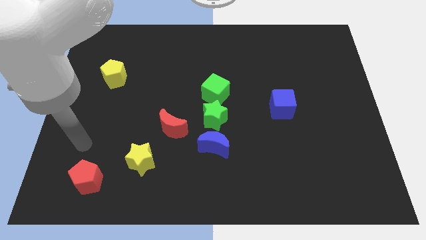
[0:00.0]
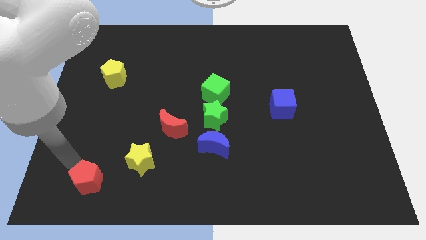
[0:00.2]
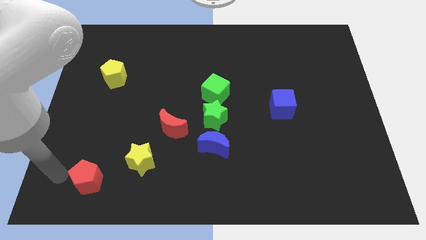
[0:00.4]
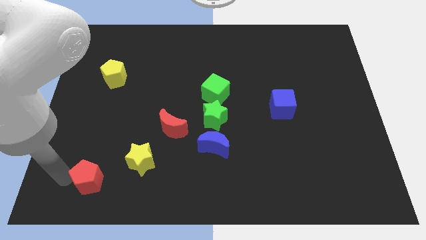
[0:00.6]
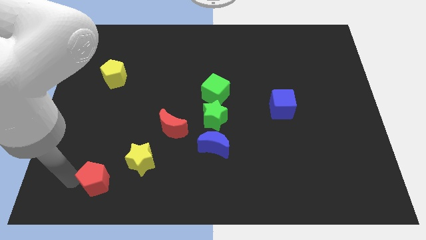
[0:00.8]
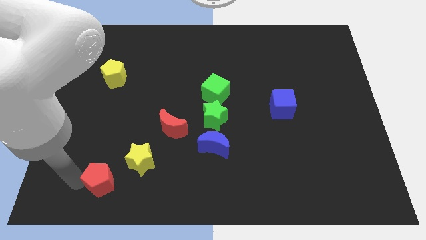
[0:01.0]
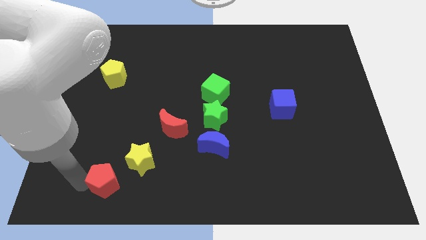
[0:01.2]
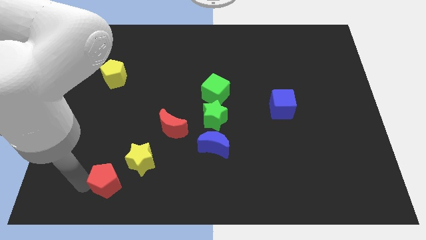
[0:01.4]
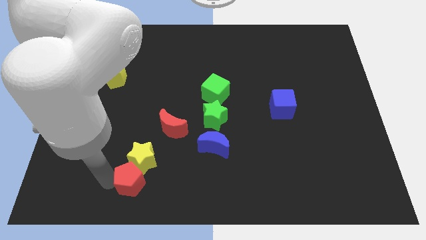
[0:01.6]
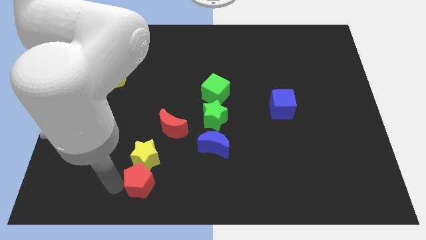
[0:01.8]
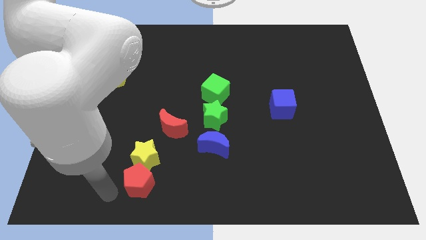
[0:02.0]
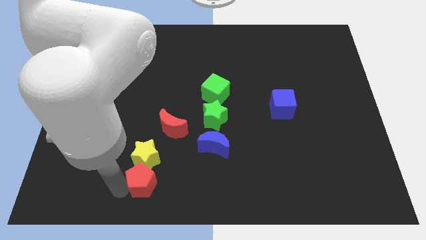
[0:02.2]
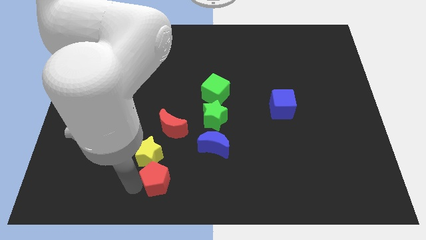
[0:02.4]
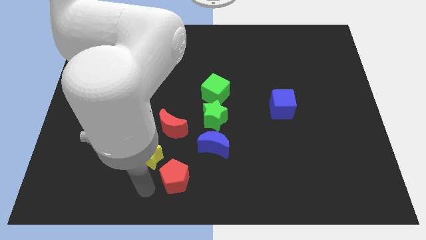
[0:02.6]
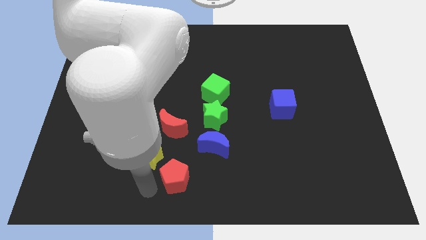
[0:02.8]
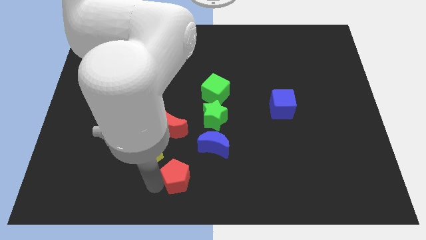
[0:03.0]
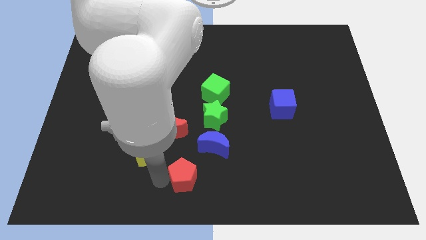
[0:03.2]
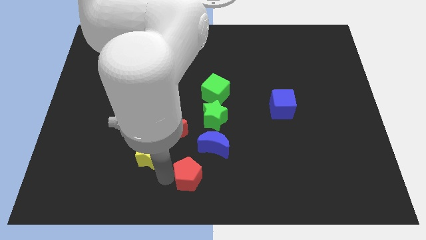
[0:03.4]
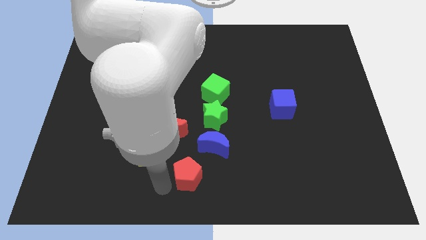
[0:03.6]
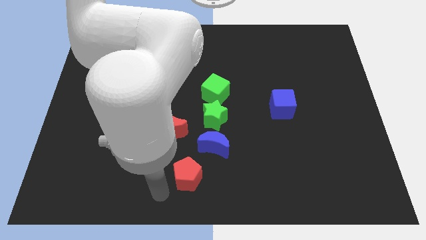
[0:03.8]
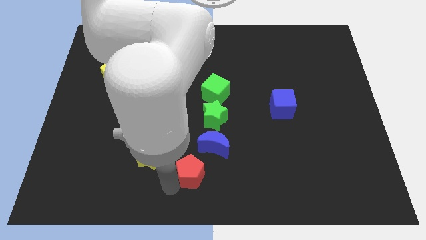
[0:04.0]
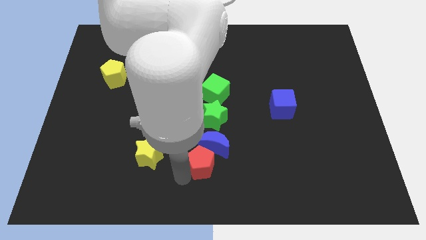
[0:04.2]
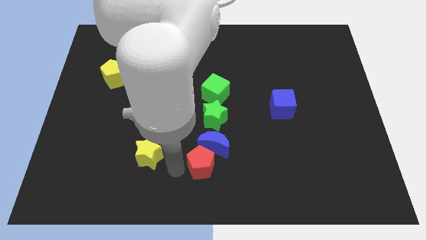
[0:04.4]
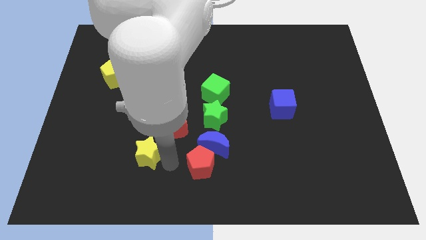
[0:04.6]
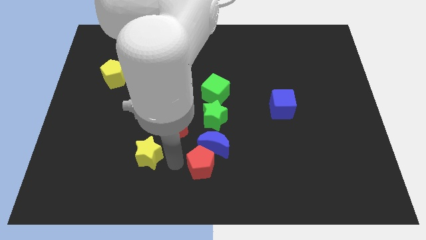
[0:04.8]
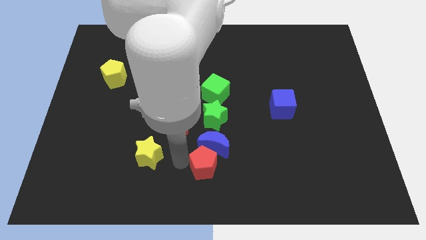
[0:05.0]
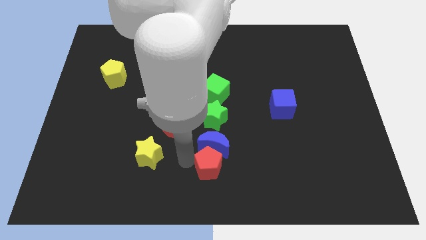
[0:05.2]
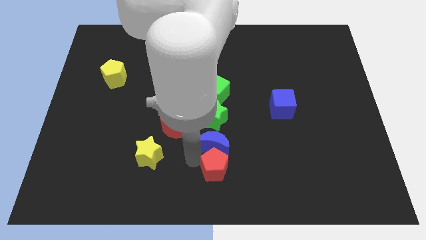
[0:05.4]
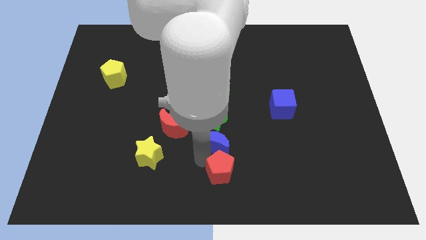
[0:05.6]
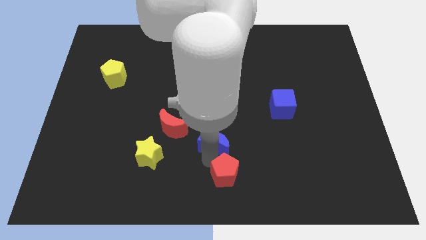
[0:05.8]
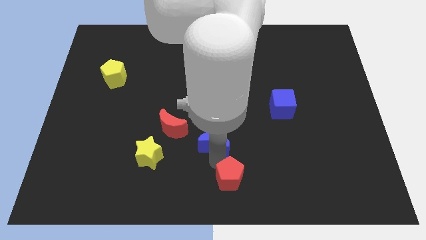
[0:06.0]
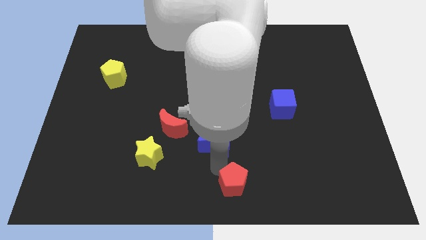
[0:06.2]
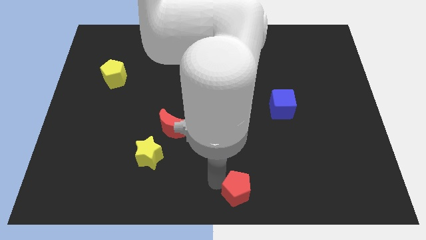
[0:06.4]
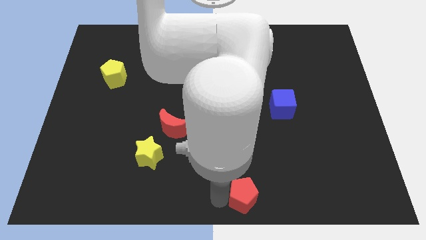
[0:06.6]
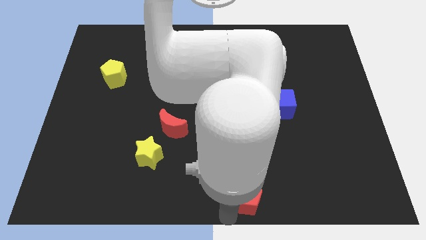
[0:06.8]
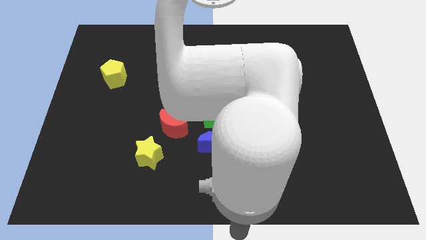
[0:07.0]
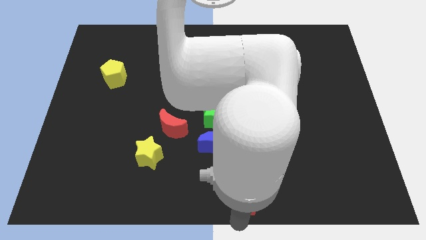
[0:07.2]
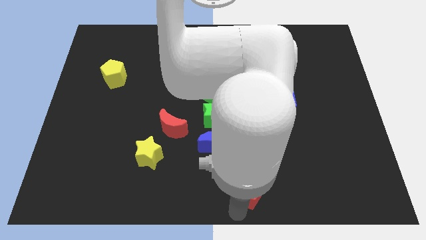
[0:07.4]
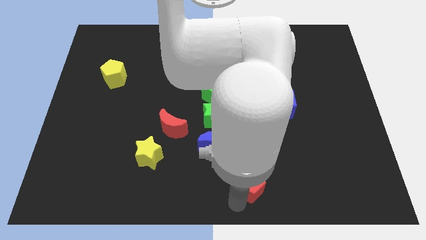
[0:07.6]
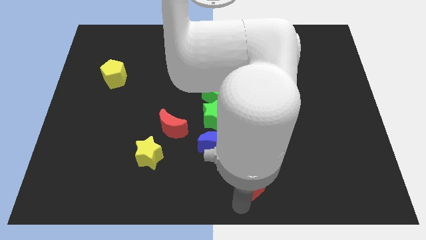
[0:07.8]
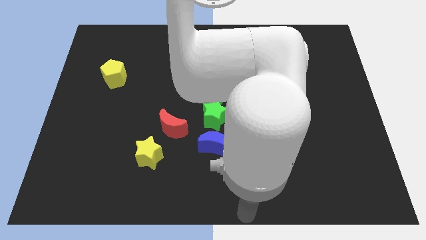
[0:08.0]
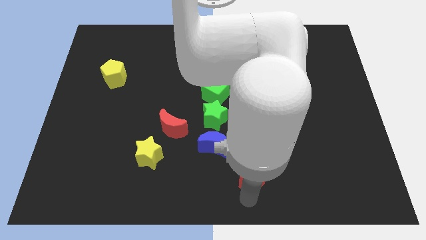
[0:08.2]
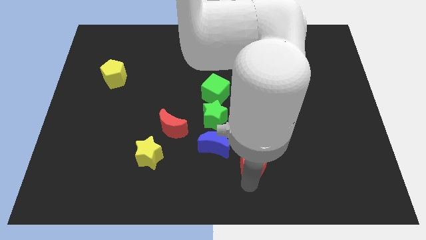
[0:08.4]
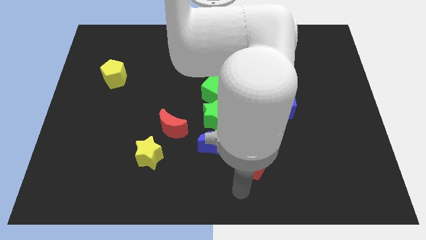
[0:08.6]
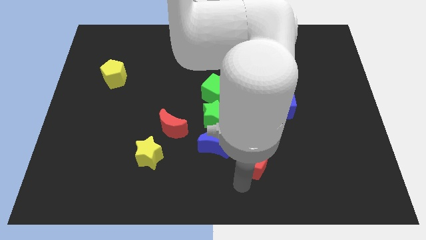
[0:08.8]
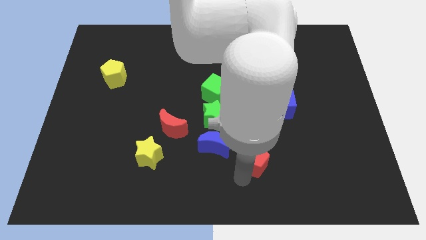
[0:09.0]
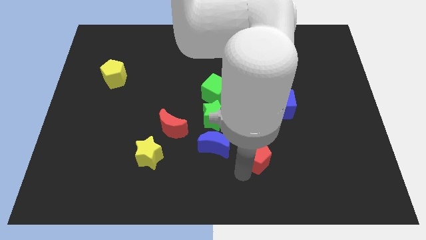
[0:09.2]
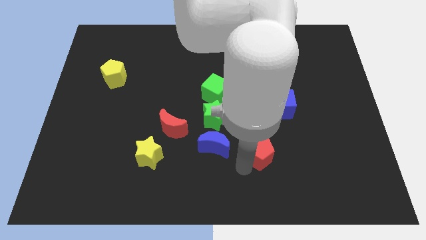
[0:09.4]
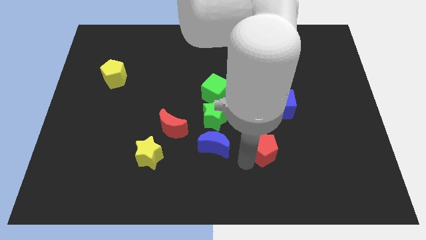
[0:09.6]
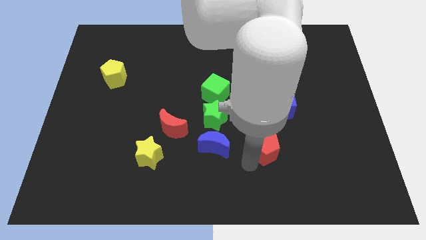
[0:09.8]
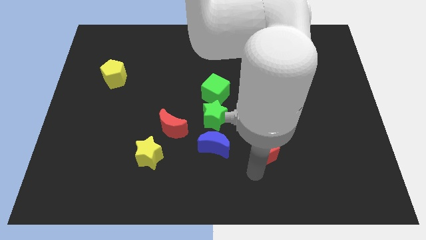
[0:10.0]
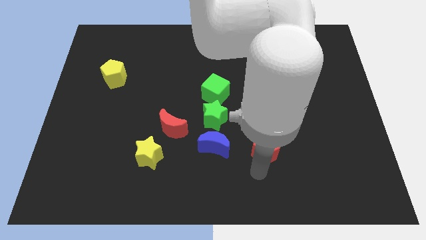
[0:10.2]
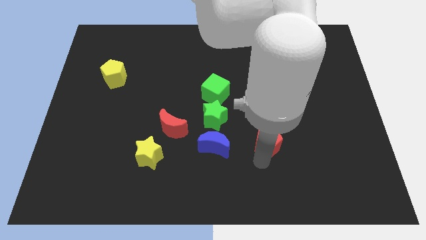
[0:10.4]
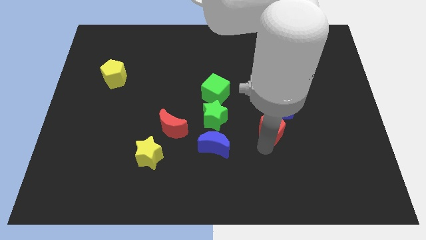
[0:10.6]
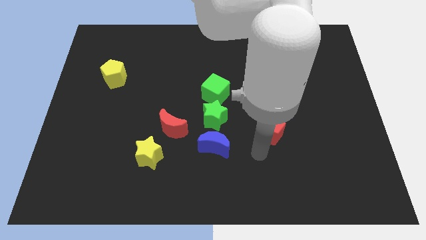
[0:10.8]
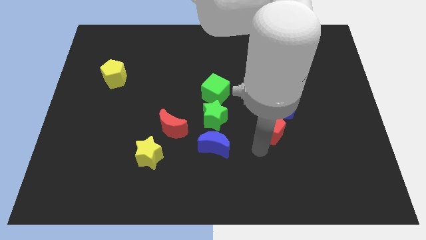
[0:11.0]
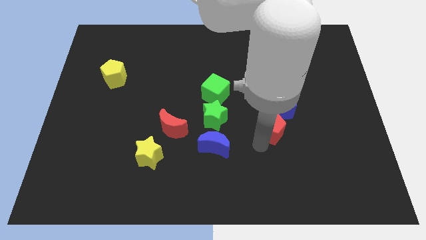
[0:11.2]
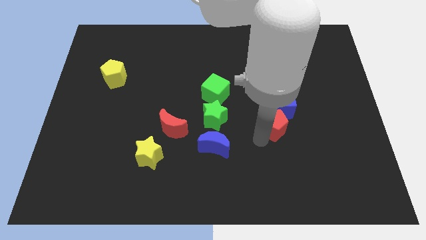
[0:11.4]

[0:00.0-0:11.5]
move the red pentagon towards the blue cube

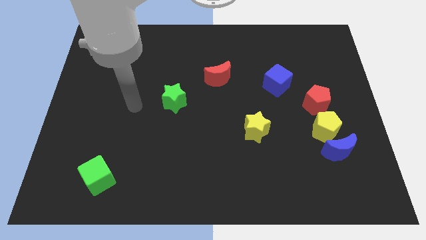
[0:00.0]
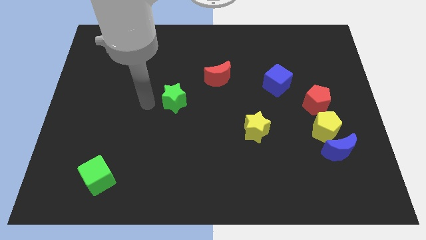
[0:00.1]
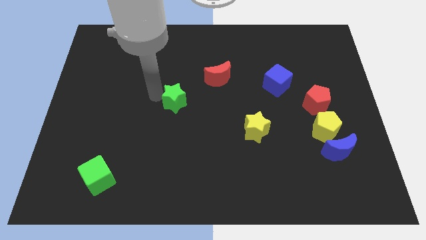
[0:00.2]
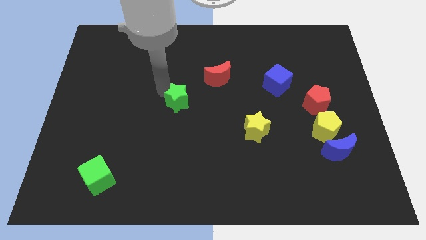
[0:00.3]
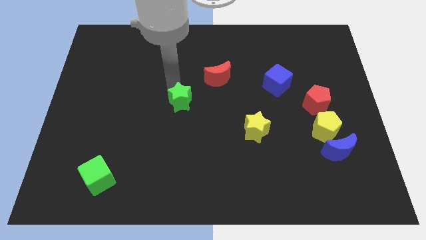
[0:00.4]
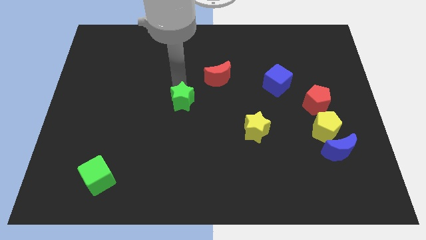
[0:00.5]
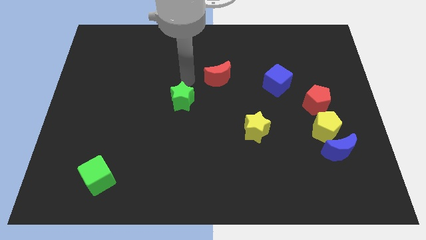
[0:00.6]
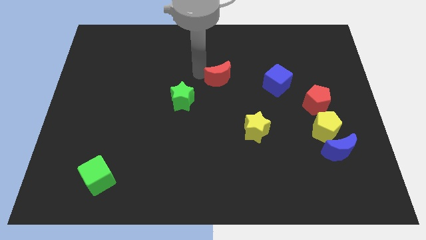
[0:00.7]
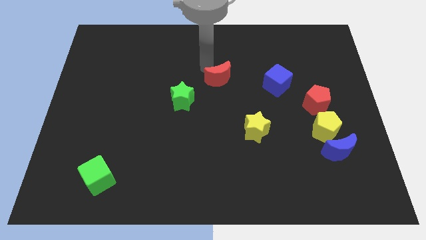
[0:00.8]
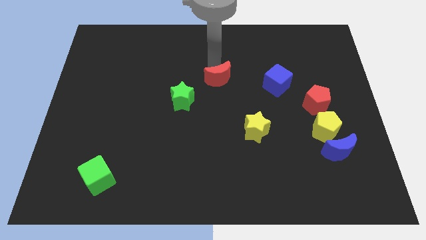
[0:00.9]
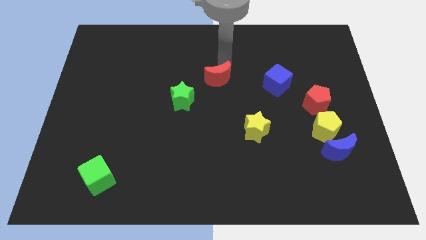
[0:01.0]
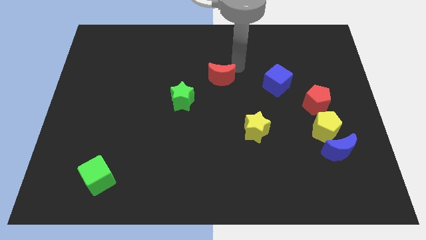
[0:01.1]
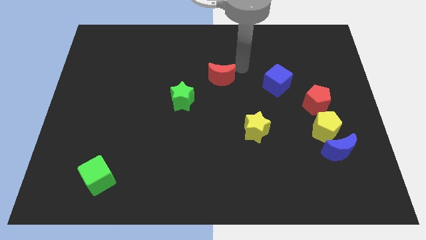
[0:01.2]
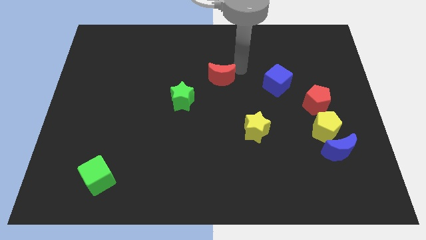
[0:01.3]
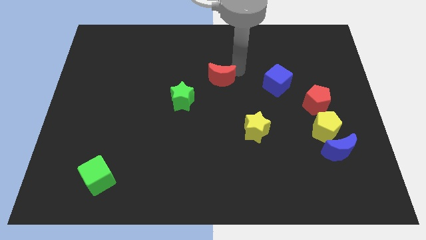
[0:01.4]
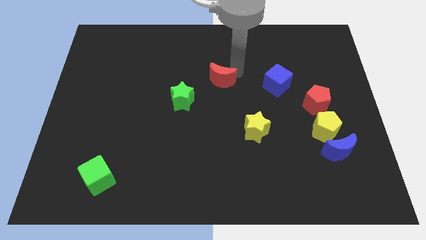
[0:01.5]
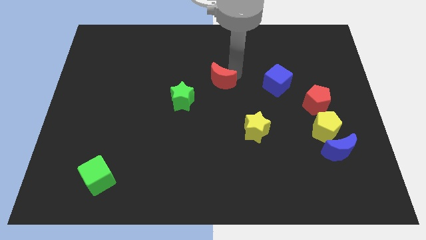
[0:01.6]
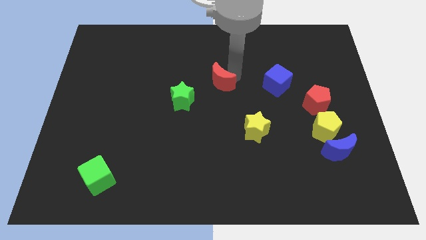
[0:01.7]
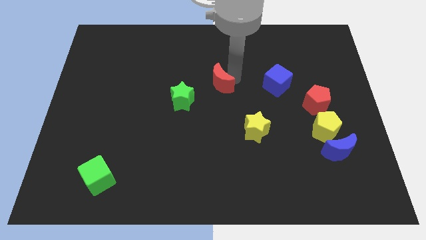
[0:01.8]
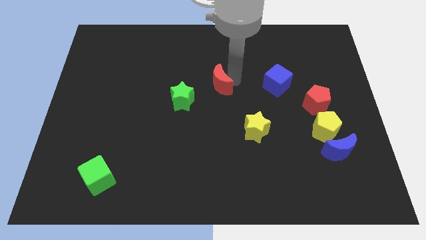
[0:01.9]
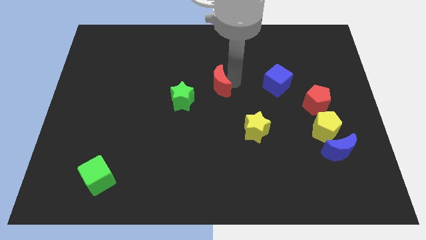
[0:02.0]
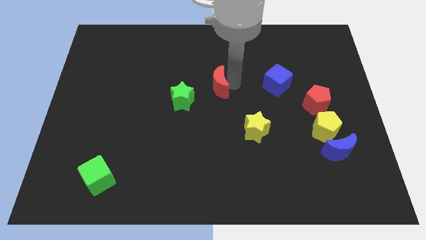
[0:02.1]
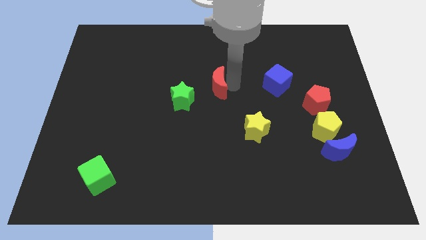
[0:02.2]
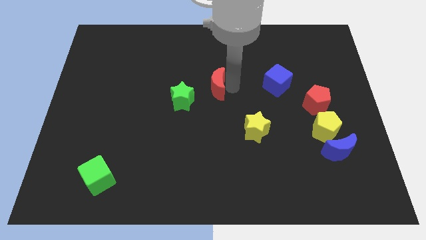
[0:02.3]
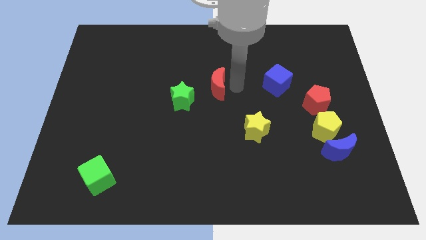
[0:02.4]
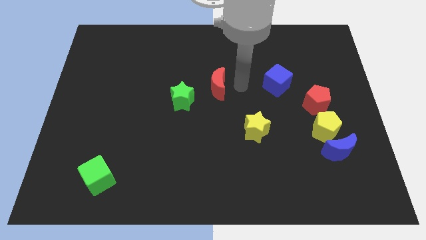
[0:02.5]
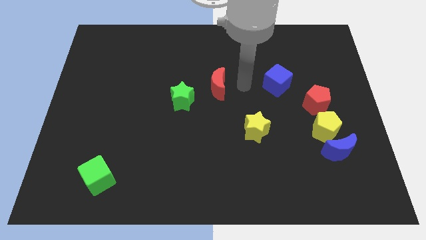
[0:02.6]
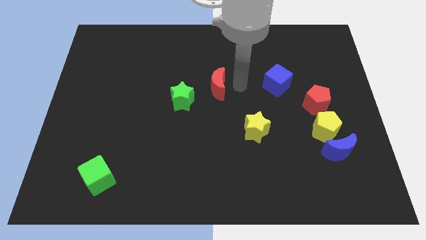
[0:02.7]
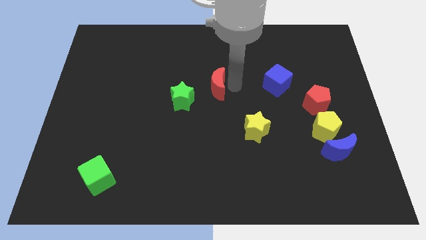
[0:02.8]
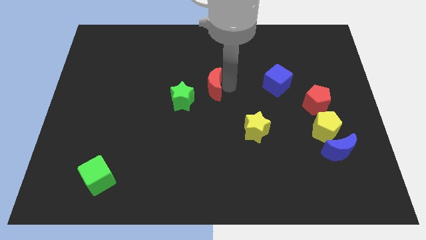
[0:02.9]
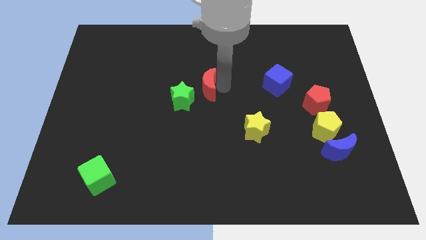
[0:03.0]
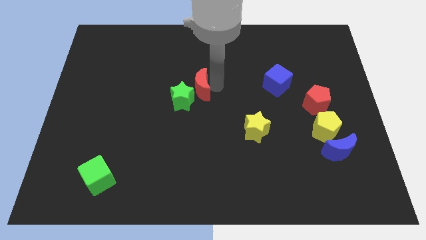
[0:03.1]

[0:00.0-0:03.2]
put the red moon close to the green star
